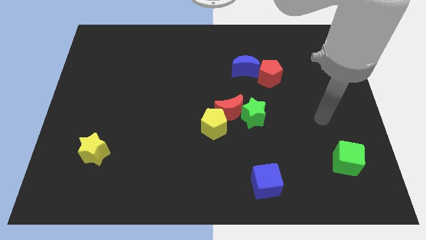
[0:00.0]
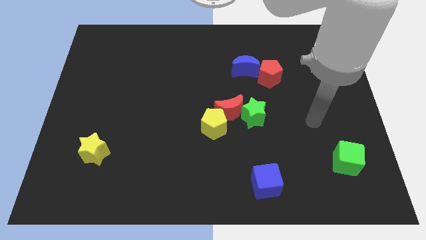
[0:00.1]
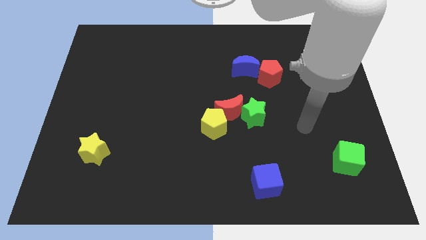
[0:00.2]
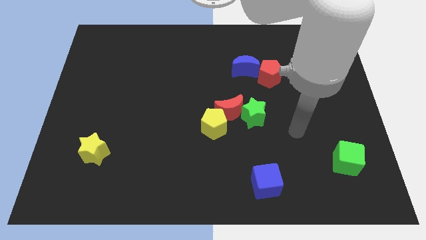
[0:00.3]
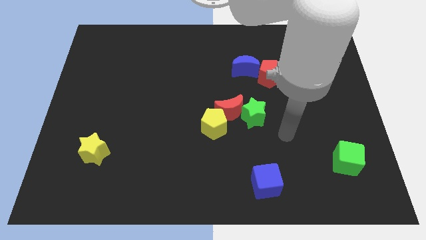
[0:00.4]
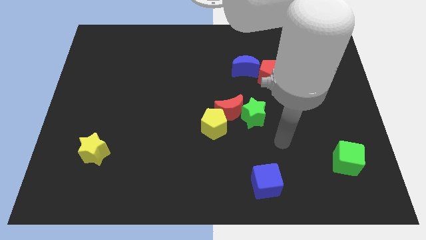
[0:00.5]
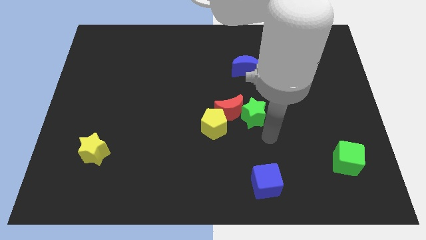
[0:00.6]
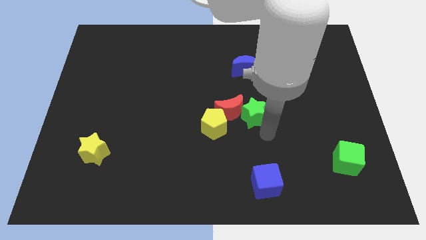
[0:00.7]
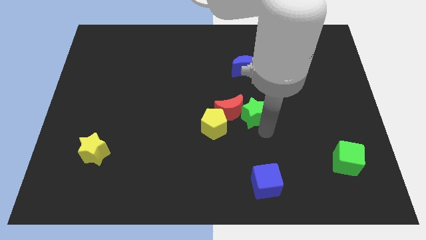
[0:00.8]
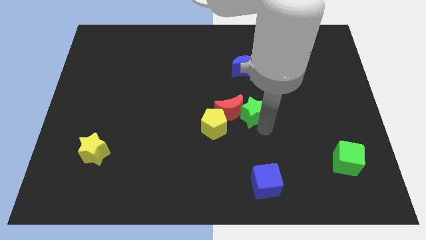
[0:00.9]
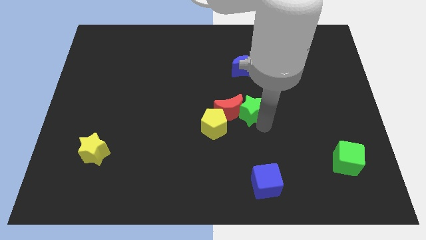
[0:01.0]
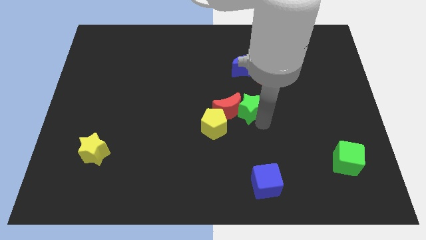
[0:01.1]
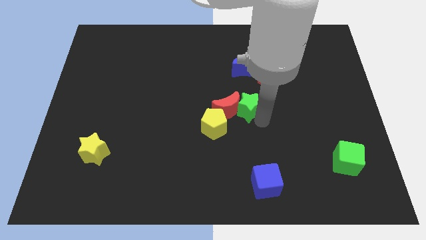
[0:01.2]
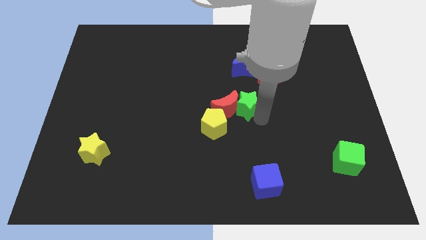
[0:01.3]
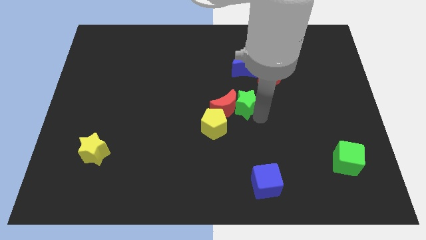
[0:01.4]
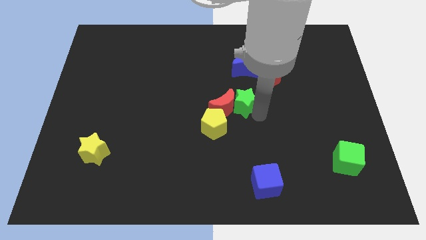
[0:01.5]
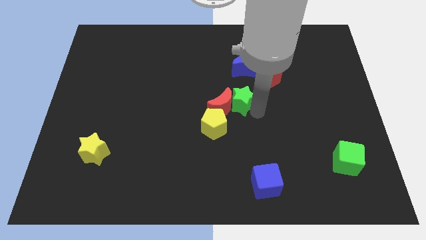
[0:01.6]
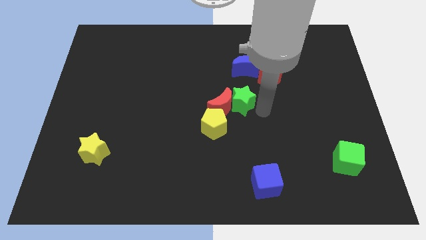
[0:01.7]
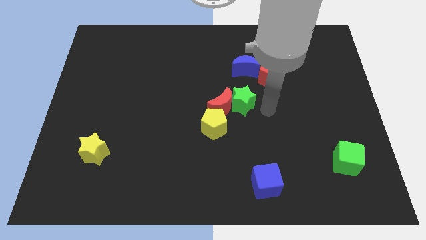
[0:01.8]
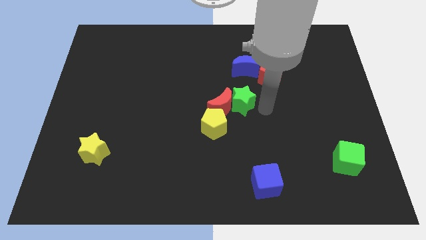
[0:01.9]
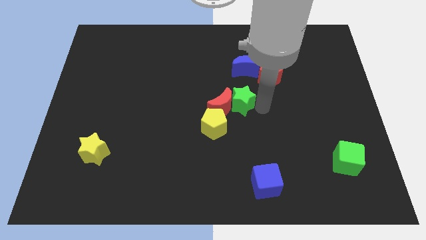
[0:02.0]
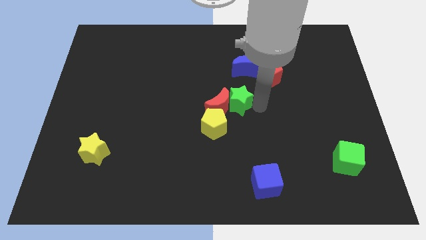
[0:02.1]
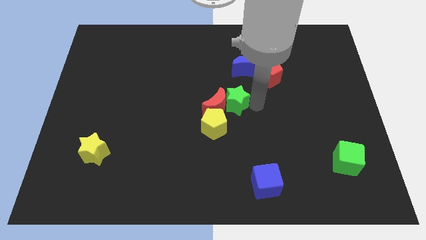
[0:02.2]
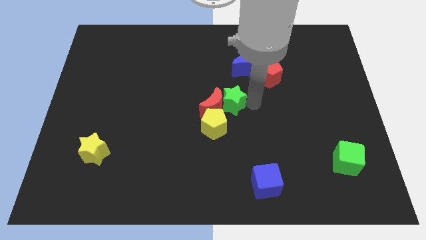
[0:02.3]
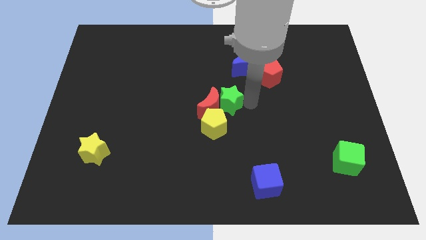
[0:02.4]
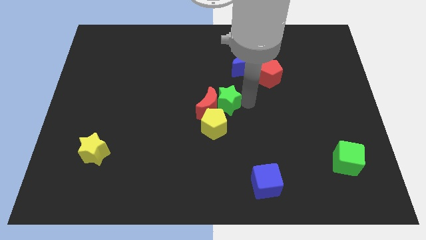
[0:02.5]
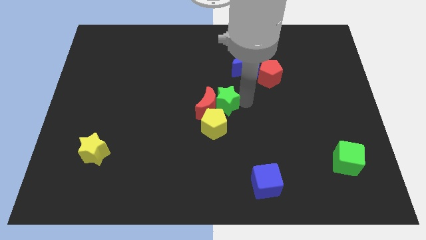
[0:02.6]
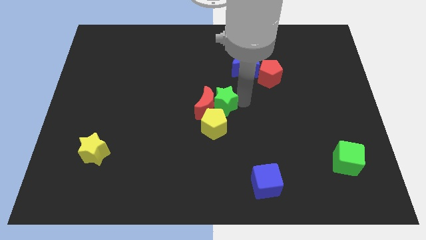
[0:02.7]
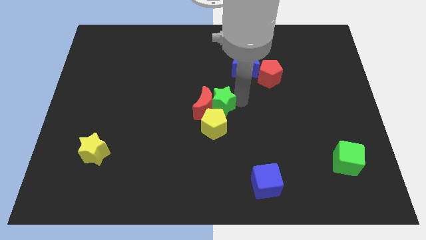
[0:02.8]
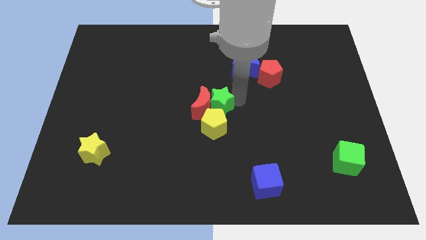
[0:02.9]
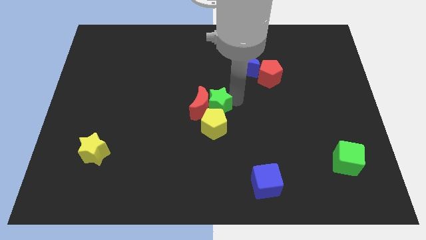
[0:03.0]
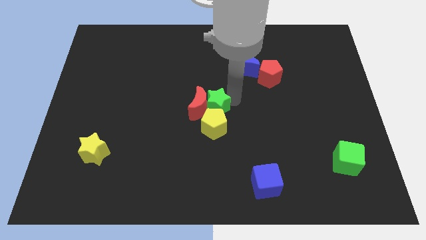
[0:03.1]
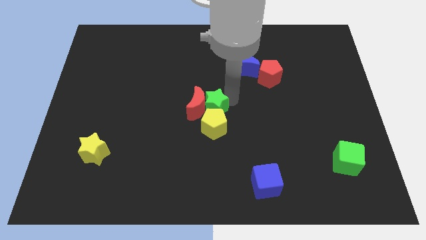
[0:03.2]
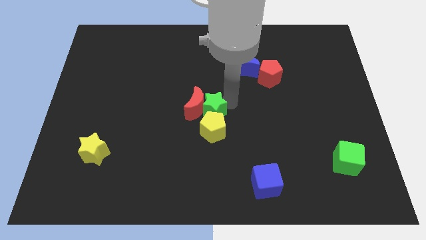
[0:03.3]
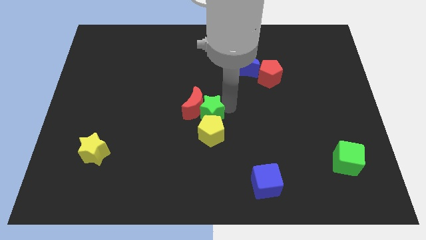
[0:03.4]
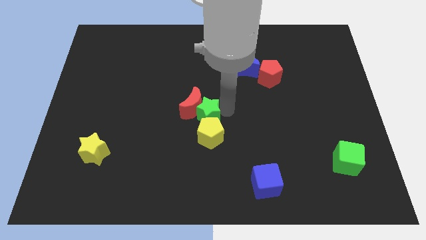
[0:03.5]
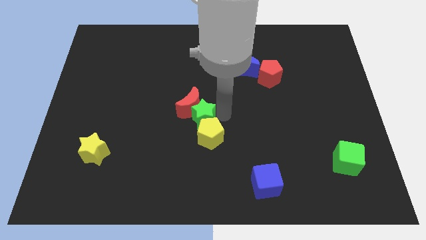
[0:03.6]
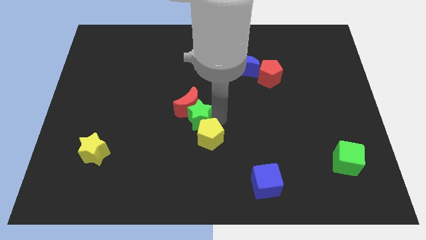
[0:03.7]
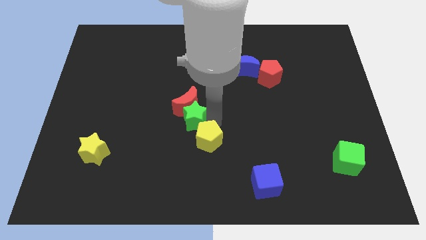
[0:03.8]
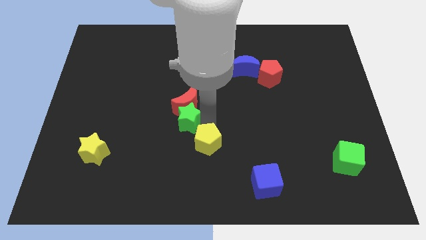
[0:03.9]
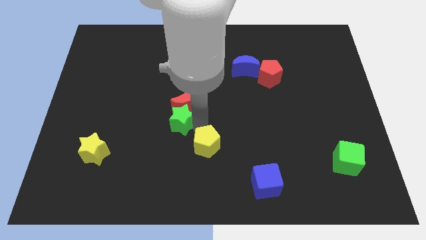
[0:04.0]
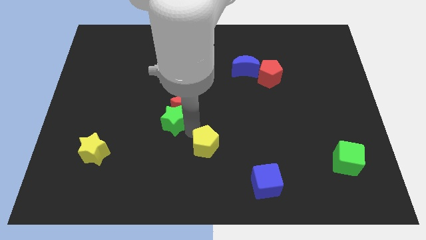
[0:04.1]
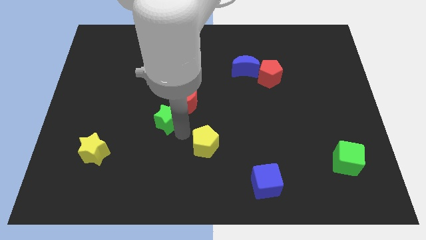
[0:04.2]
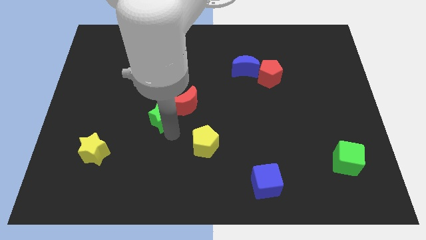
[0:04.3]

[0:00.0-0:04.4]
slide the green star to the left

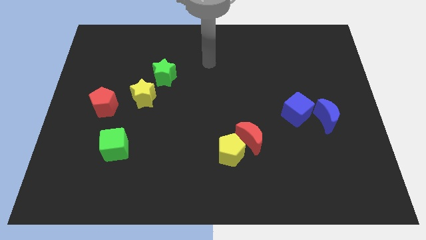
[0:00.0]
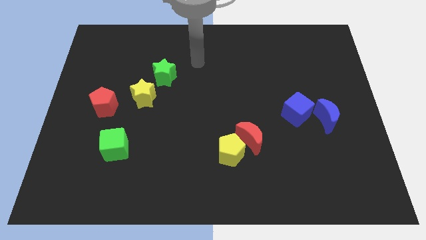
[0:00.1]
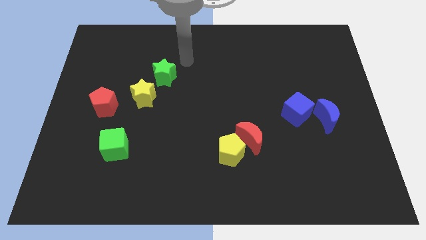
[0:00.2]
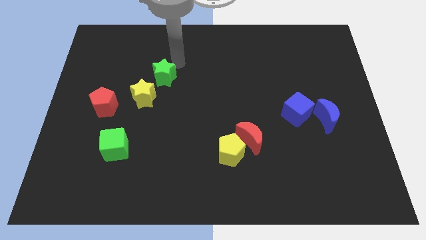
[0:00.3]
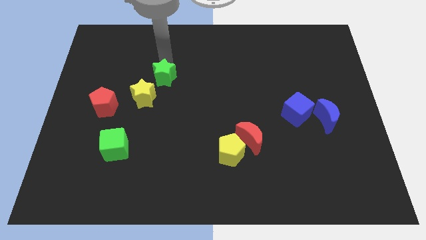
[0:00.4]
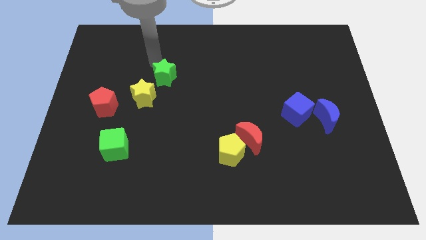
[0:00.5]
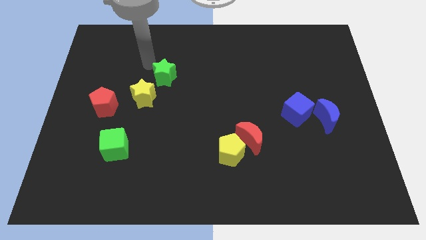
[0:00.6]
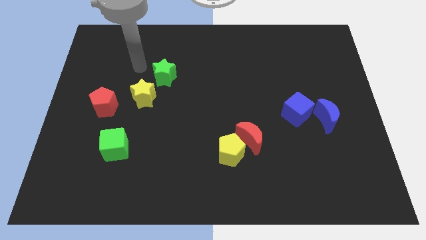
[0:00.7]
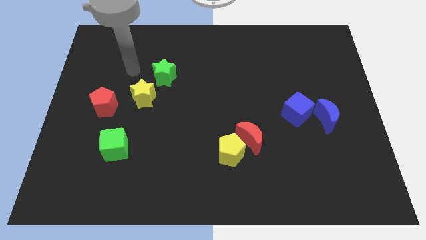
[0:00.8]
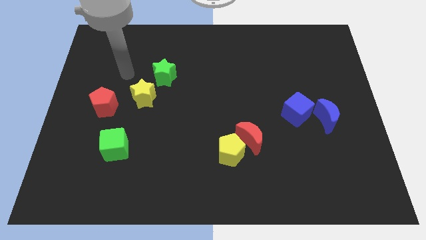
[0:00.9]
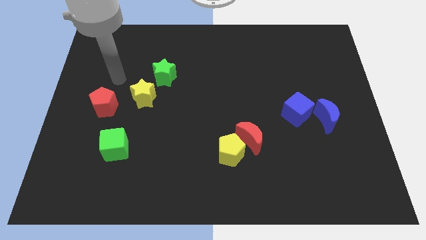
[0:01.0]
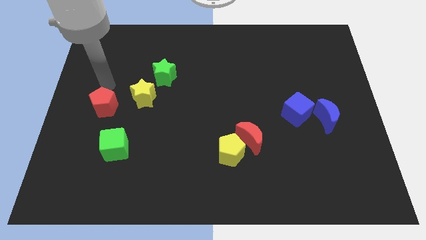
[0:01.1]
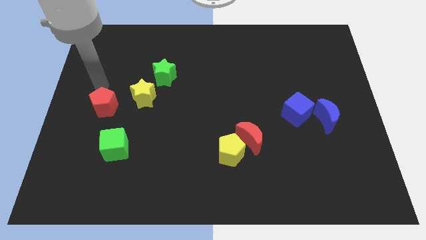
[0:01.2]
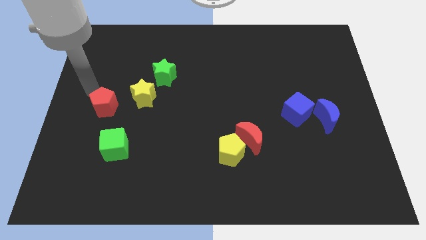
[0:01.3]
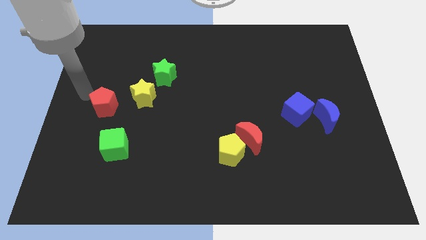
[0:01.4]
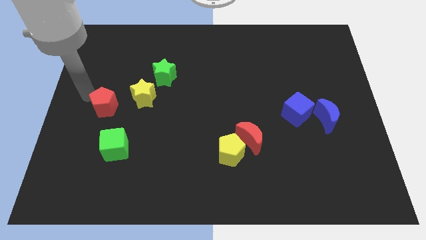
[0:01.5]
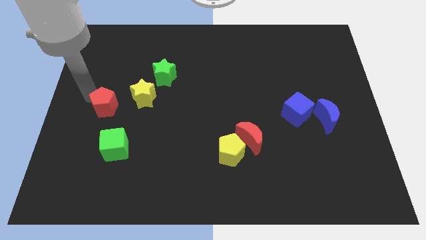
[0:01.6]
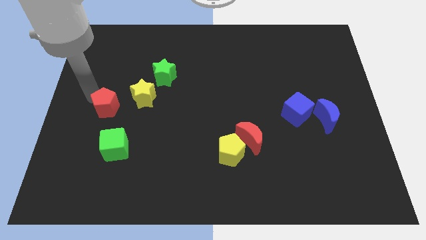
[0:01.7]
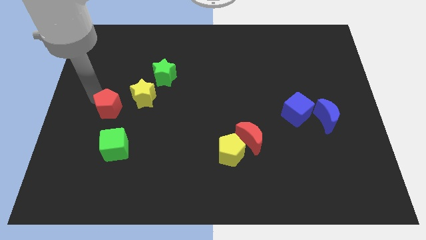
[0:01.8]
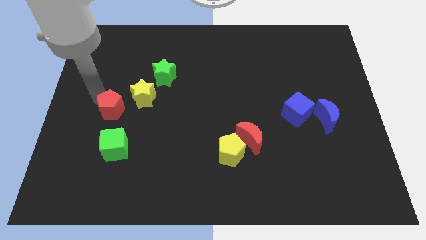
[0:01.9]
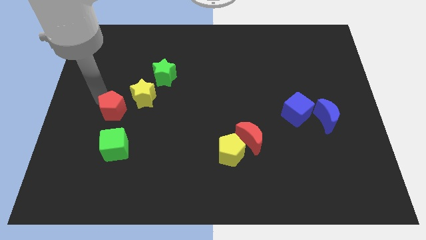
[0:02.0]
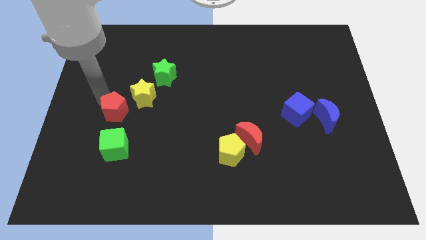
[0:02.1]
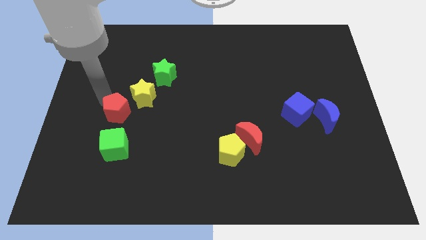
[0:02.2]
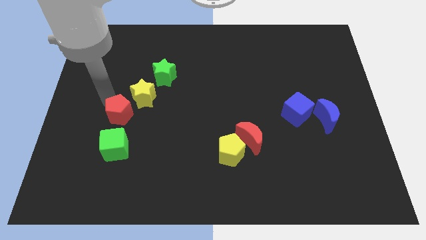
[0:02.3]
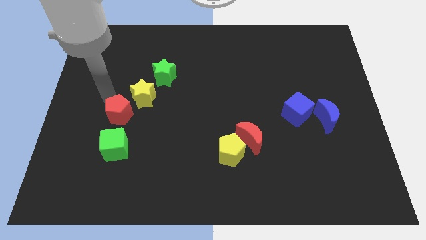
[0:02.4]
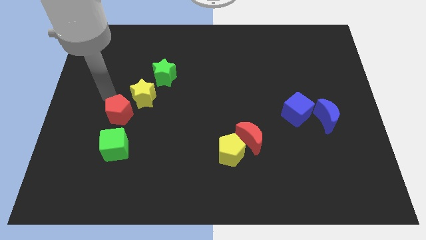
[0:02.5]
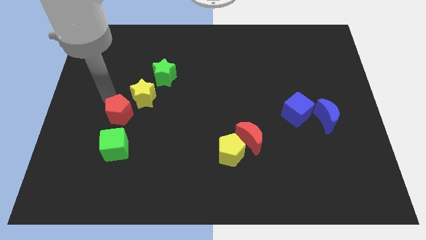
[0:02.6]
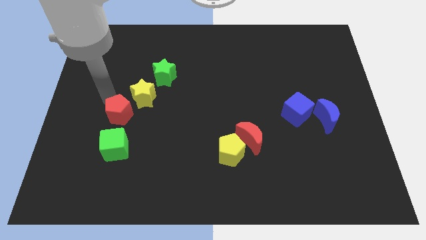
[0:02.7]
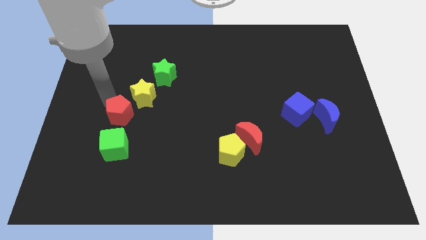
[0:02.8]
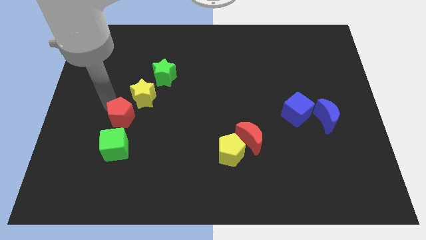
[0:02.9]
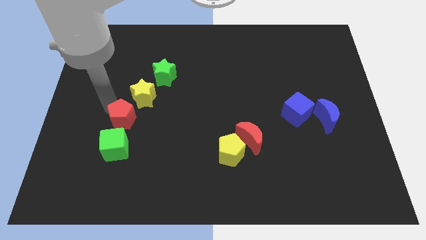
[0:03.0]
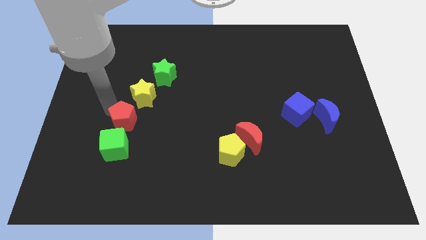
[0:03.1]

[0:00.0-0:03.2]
slide the red pentagon a little down and right diagonally

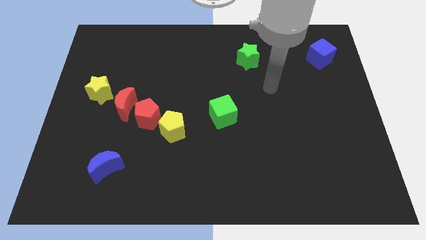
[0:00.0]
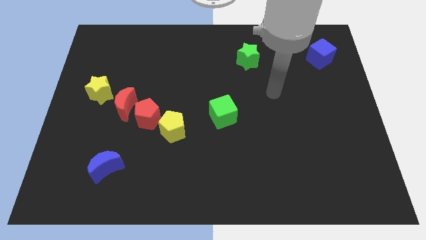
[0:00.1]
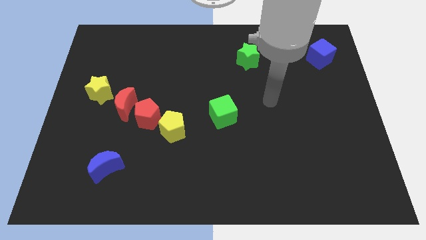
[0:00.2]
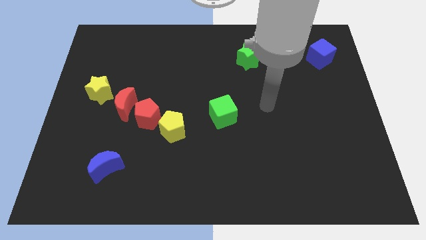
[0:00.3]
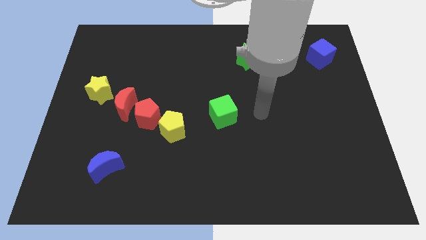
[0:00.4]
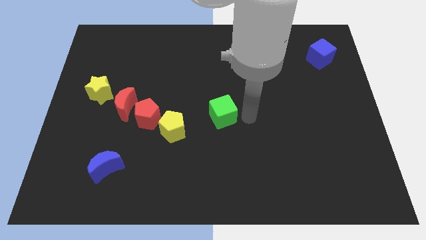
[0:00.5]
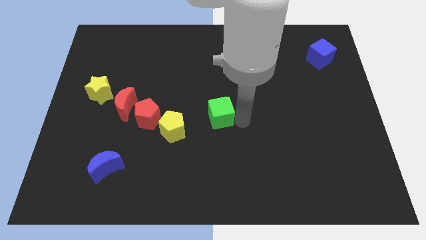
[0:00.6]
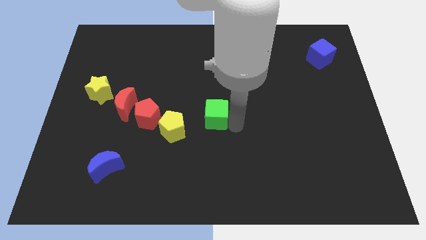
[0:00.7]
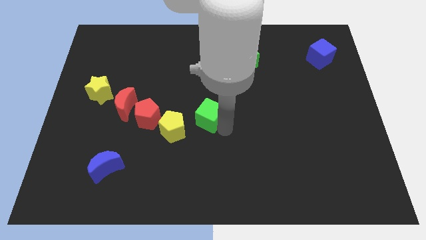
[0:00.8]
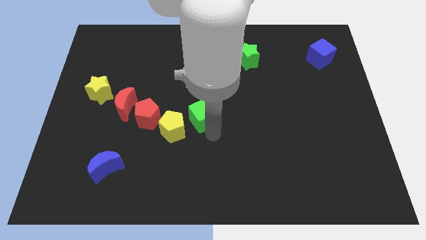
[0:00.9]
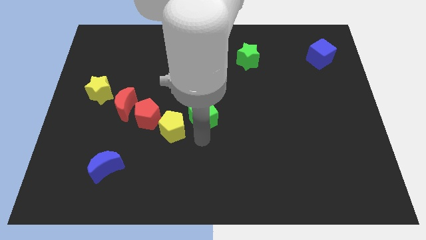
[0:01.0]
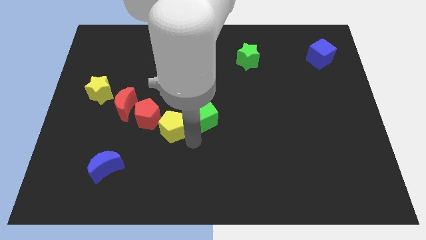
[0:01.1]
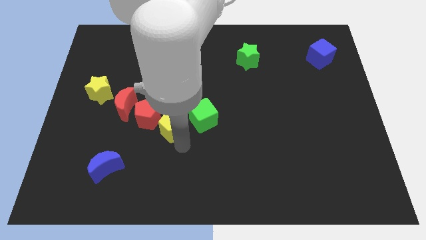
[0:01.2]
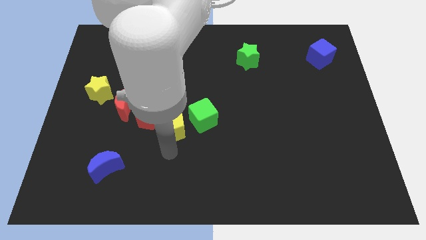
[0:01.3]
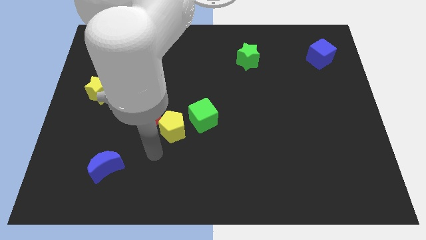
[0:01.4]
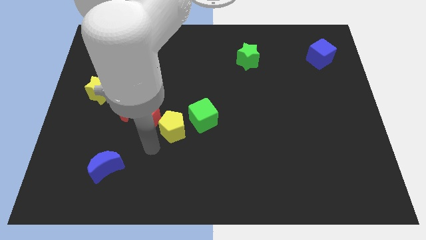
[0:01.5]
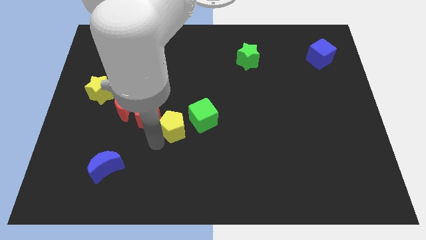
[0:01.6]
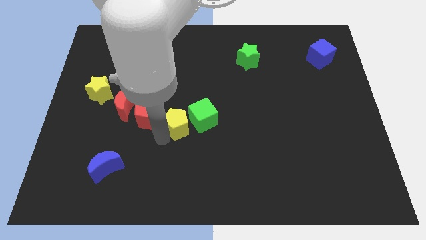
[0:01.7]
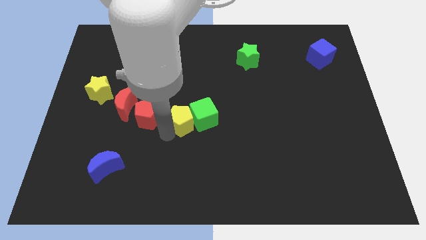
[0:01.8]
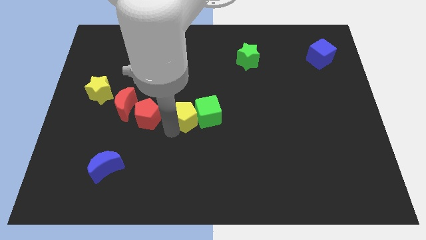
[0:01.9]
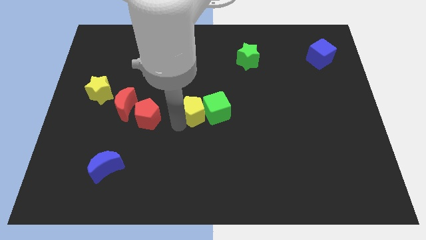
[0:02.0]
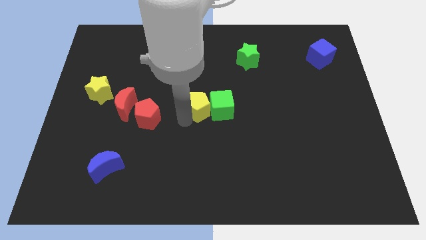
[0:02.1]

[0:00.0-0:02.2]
slightly slide the yellow pentagon diagonally up and right
